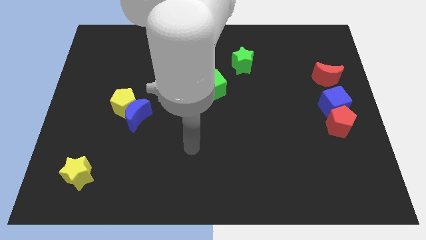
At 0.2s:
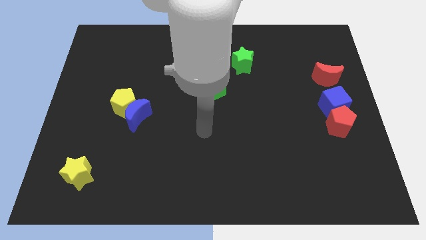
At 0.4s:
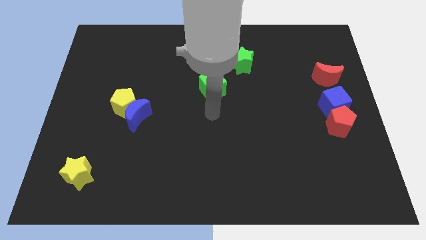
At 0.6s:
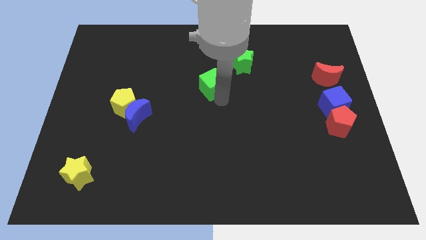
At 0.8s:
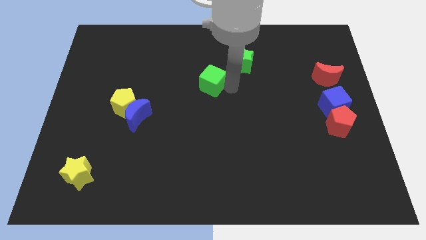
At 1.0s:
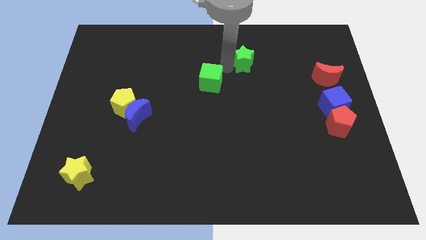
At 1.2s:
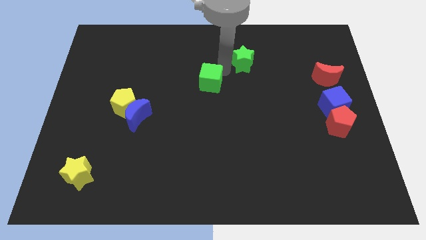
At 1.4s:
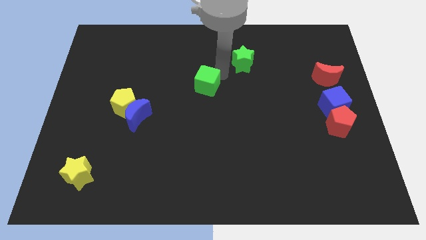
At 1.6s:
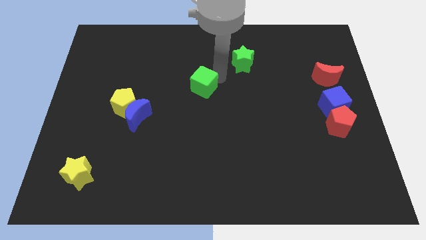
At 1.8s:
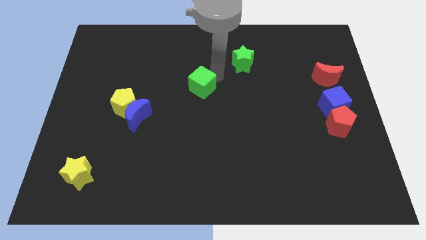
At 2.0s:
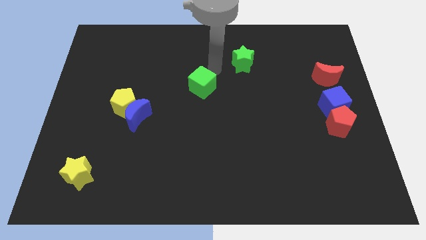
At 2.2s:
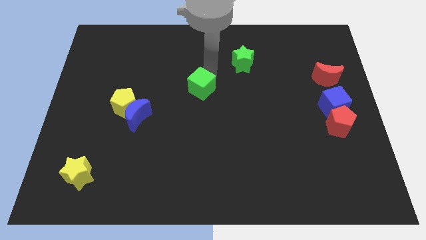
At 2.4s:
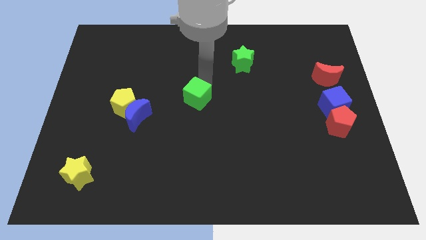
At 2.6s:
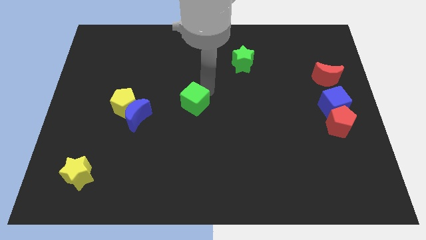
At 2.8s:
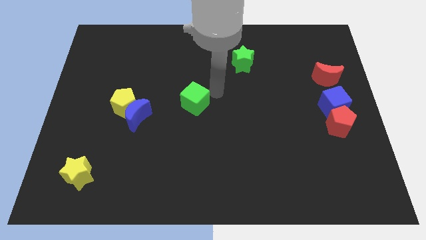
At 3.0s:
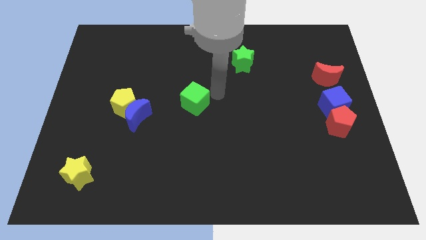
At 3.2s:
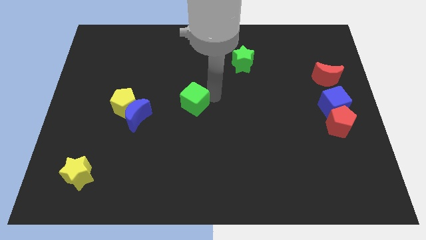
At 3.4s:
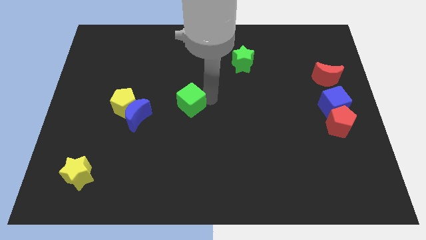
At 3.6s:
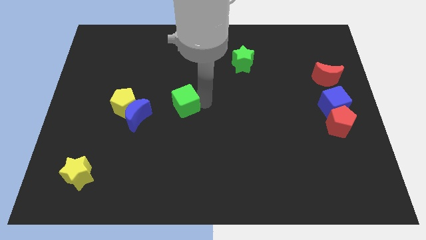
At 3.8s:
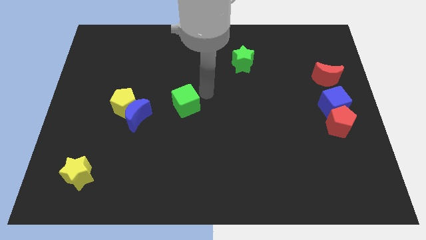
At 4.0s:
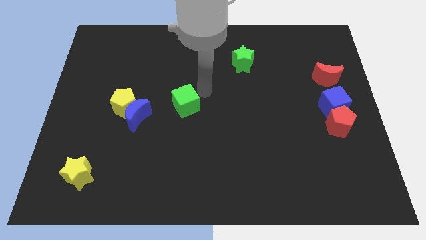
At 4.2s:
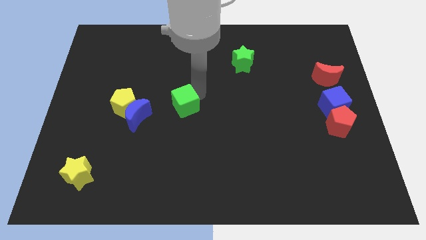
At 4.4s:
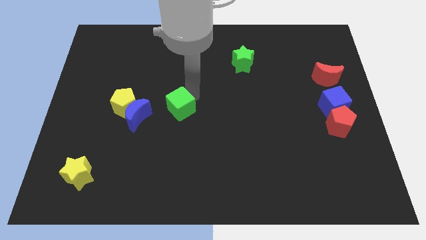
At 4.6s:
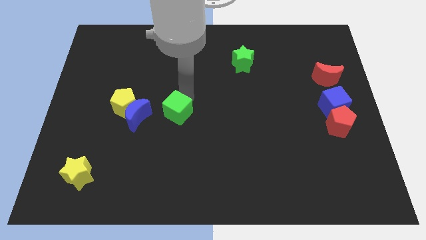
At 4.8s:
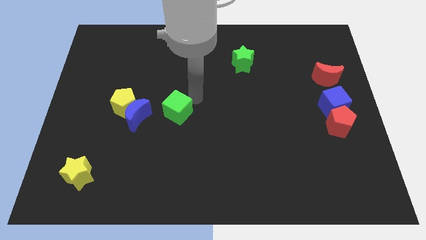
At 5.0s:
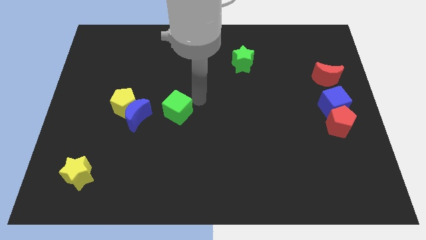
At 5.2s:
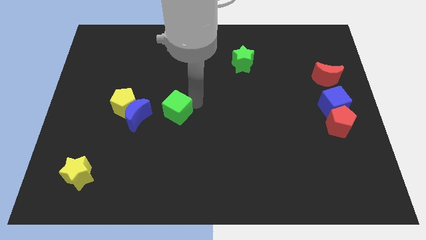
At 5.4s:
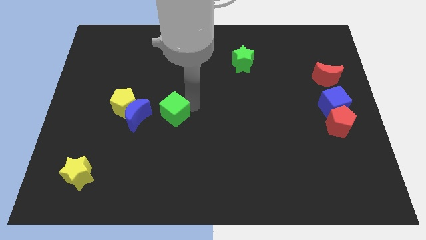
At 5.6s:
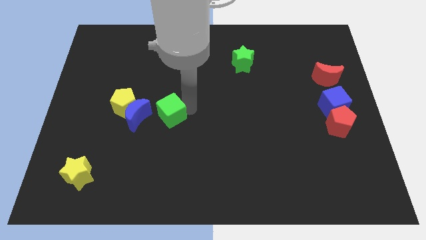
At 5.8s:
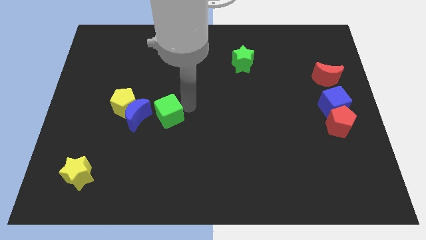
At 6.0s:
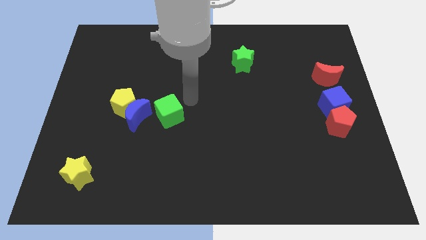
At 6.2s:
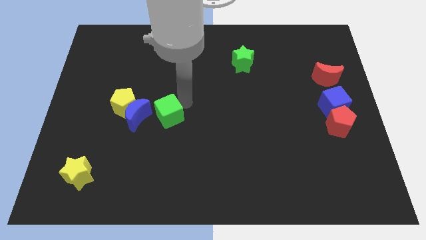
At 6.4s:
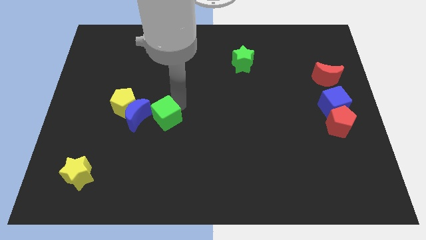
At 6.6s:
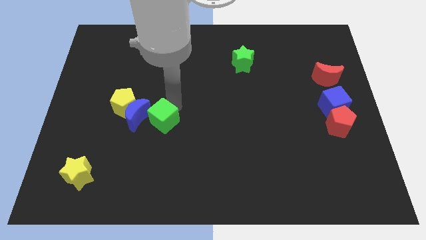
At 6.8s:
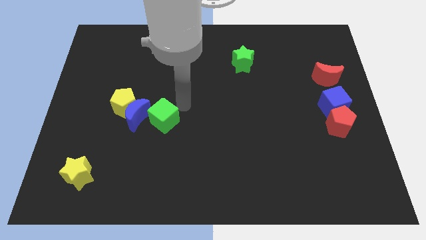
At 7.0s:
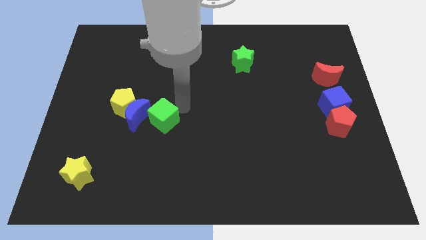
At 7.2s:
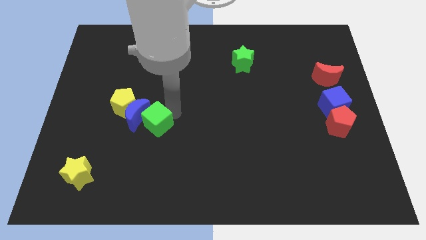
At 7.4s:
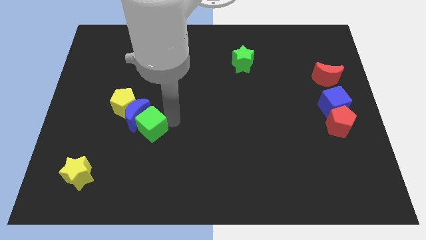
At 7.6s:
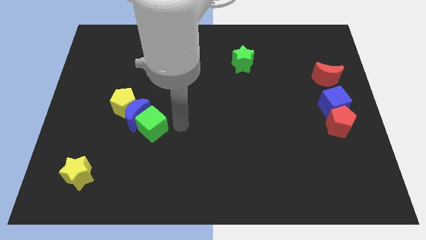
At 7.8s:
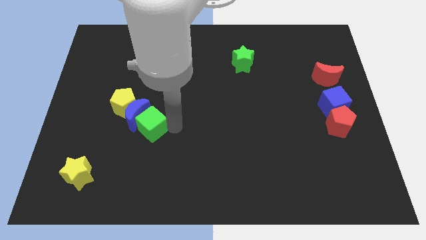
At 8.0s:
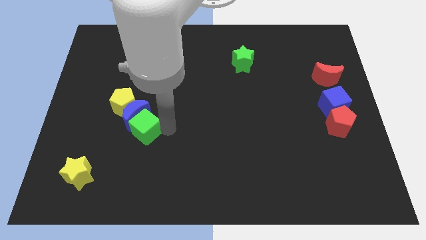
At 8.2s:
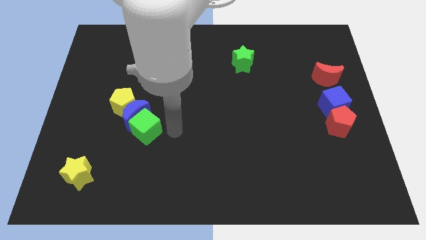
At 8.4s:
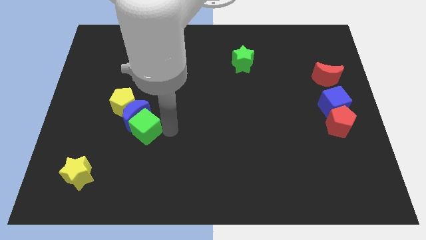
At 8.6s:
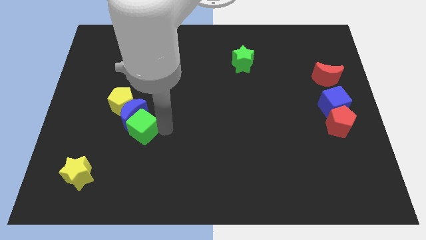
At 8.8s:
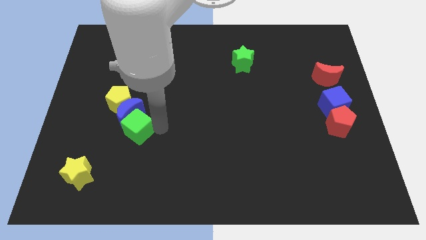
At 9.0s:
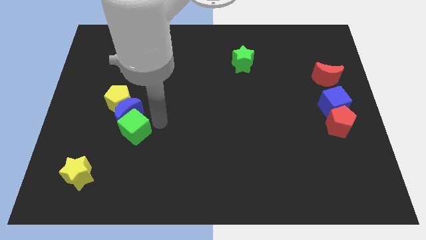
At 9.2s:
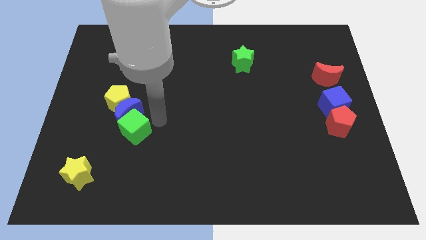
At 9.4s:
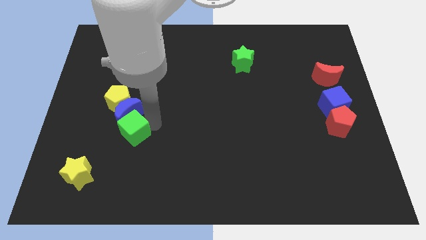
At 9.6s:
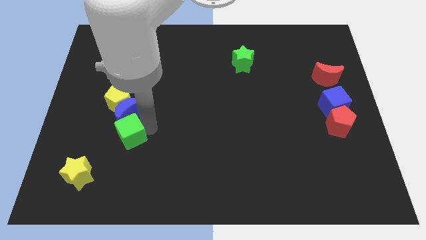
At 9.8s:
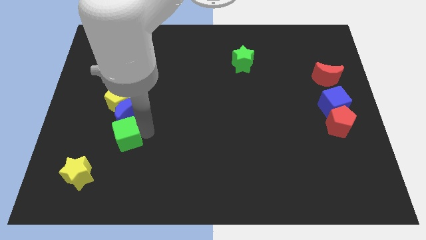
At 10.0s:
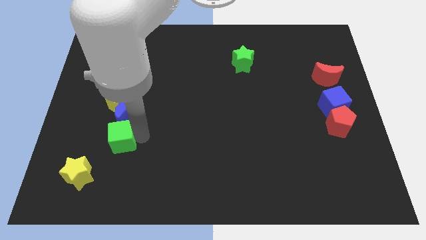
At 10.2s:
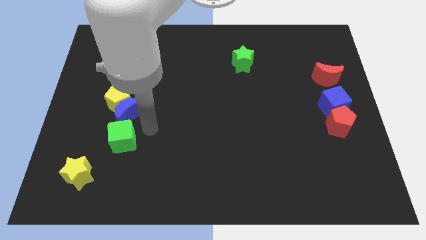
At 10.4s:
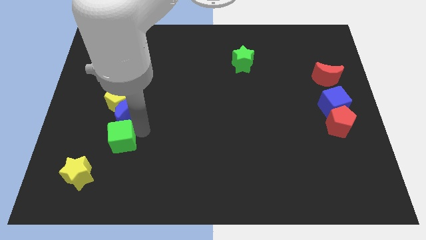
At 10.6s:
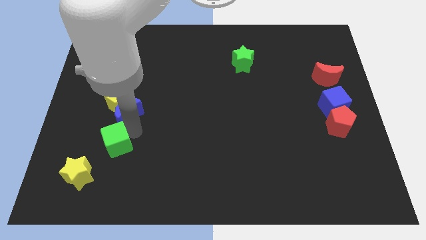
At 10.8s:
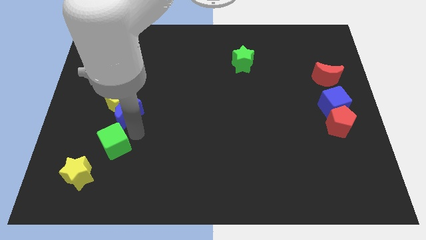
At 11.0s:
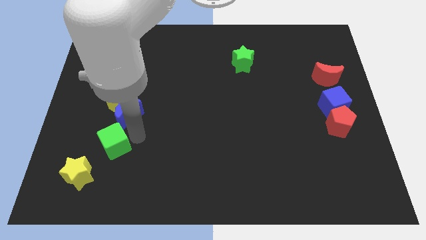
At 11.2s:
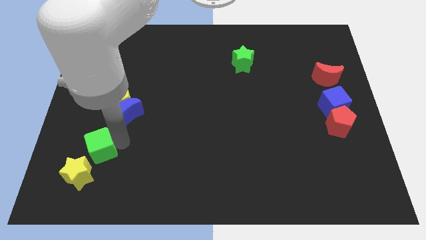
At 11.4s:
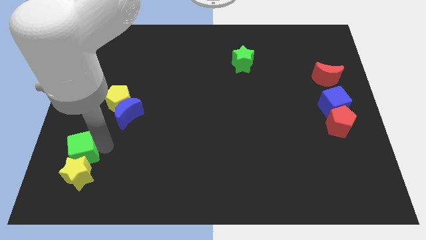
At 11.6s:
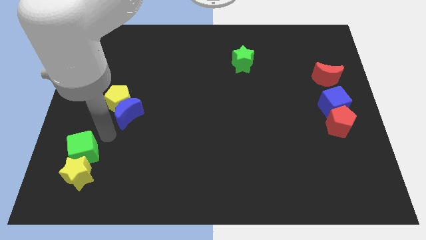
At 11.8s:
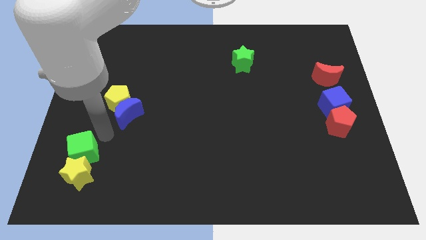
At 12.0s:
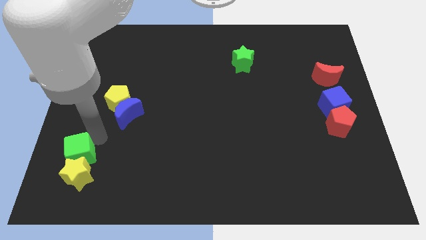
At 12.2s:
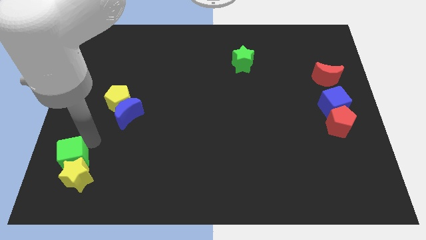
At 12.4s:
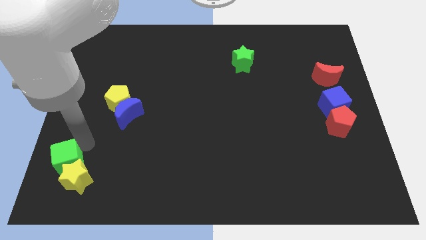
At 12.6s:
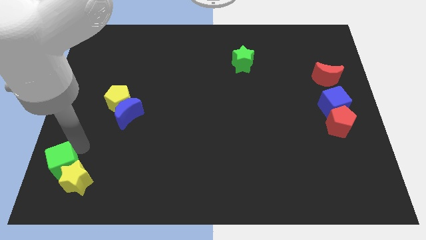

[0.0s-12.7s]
move the green cube to the bottom left of the board

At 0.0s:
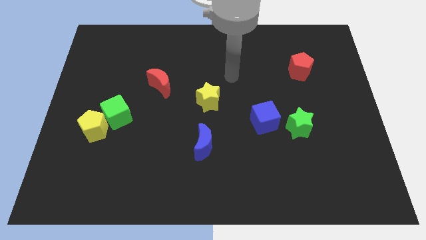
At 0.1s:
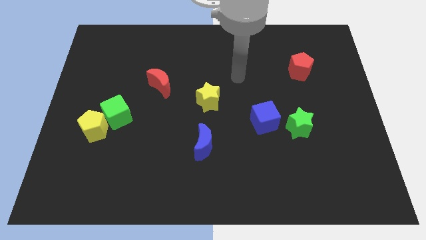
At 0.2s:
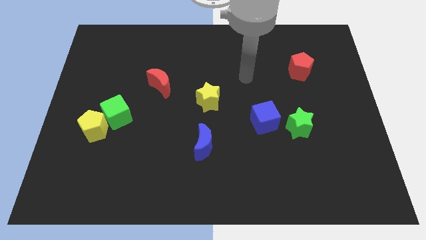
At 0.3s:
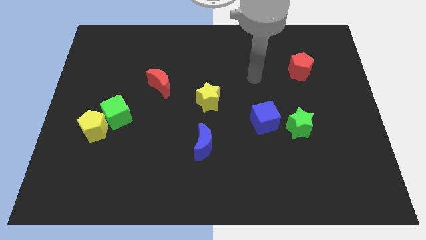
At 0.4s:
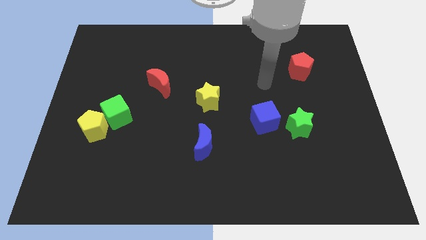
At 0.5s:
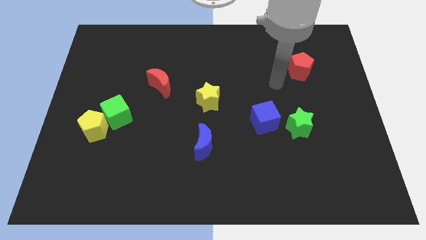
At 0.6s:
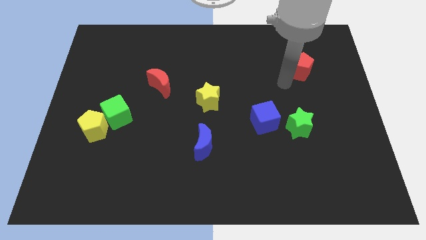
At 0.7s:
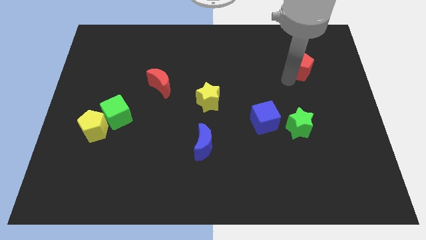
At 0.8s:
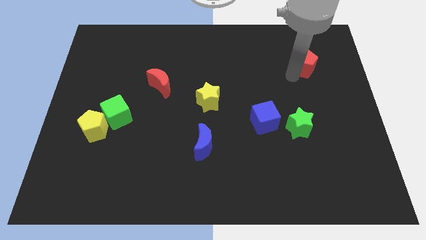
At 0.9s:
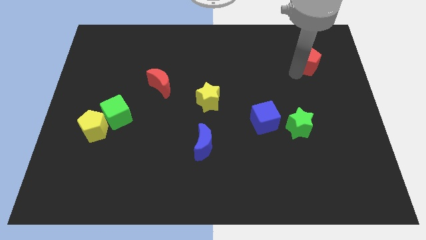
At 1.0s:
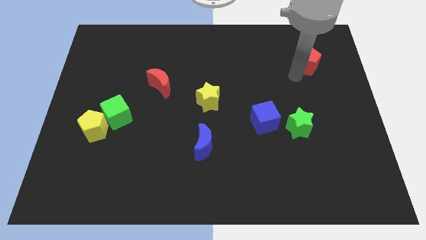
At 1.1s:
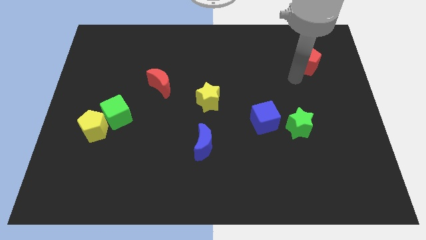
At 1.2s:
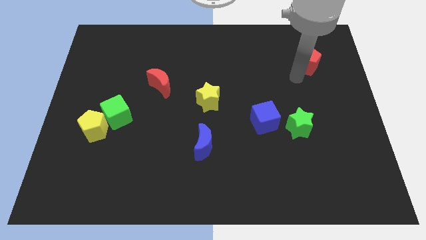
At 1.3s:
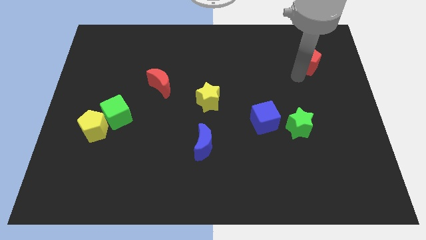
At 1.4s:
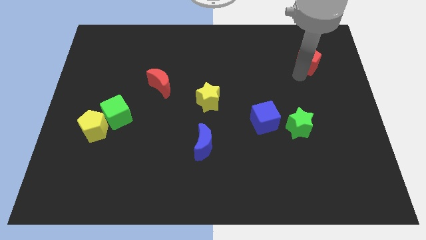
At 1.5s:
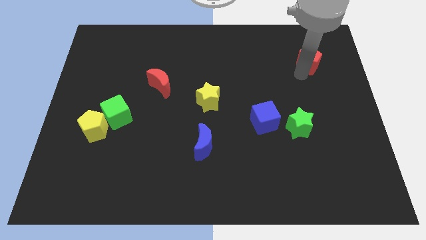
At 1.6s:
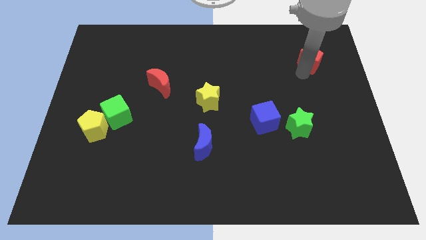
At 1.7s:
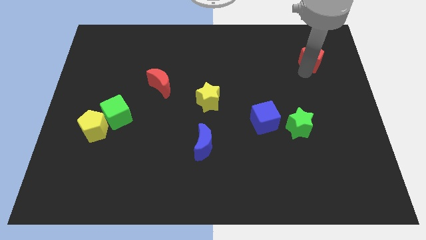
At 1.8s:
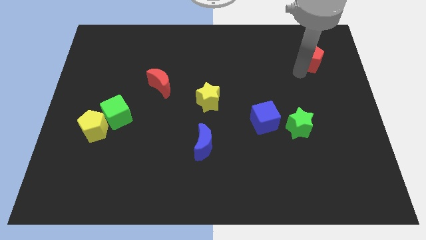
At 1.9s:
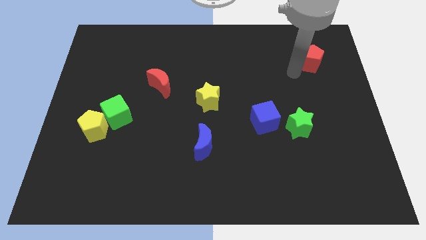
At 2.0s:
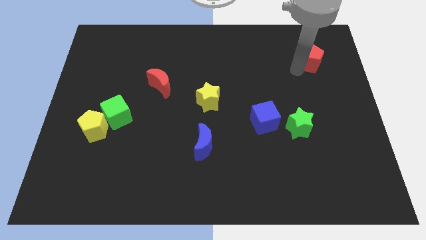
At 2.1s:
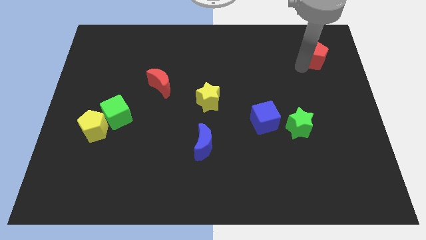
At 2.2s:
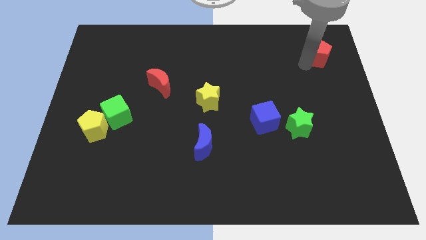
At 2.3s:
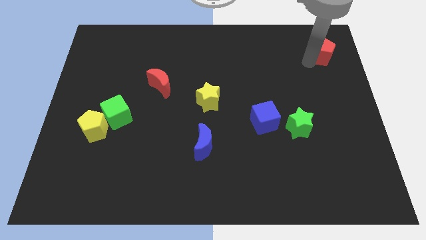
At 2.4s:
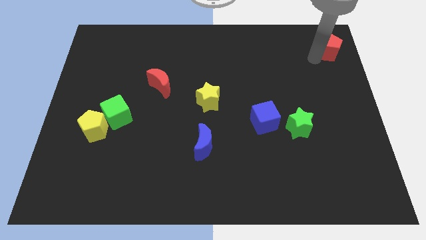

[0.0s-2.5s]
move the red pentagon to the top right of the board
